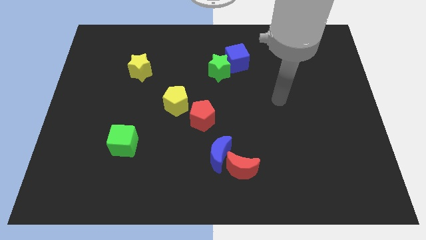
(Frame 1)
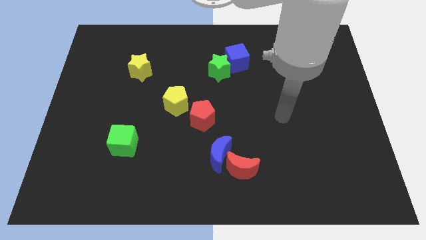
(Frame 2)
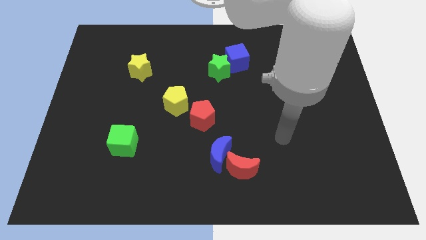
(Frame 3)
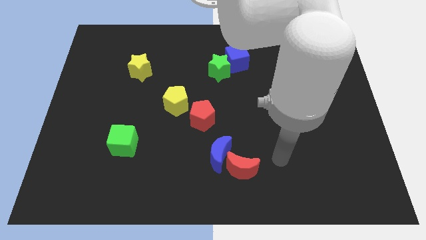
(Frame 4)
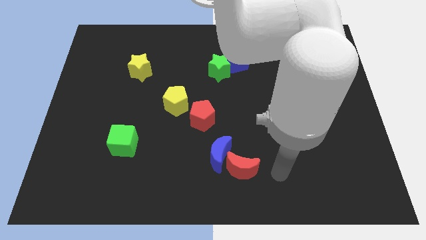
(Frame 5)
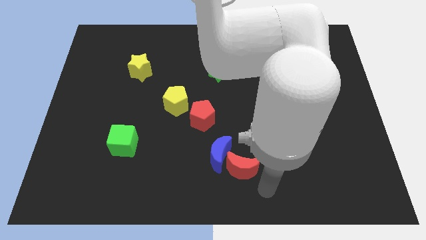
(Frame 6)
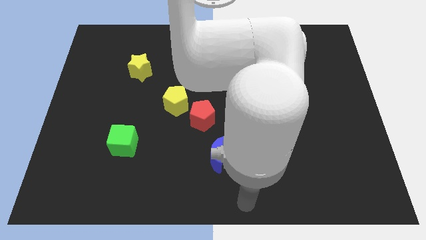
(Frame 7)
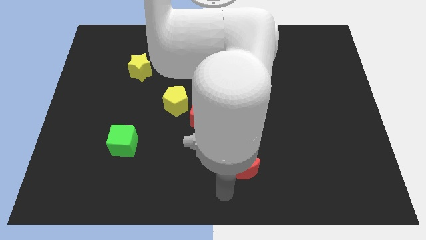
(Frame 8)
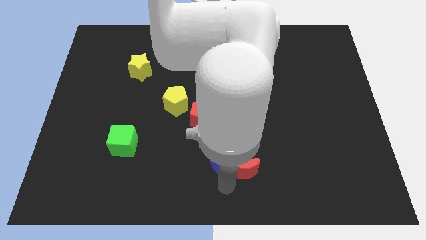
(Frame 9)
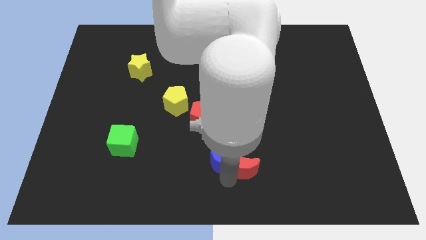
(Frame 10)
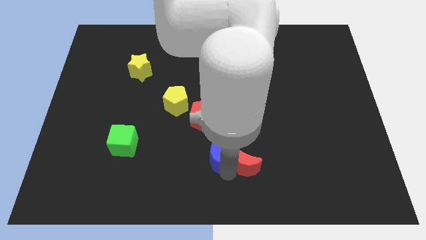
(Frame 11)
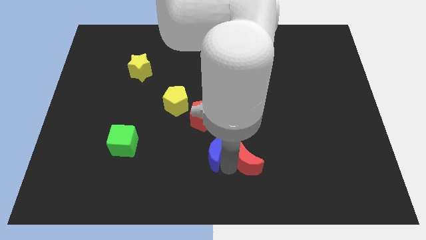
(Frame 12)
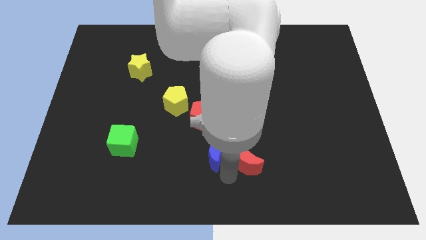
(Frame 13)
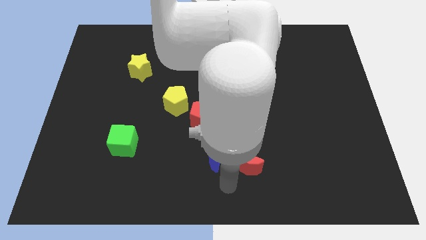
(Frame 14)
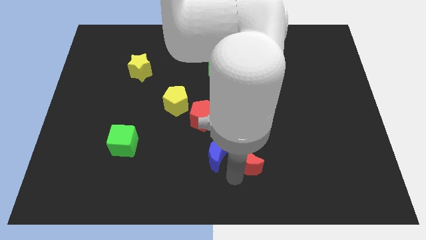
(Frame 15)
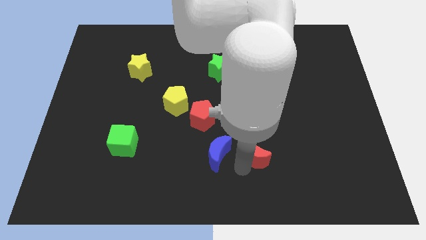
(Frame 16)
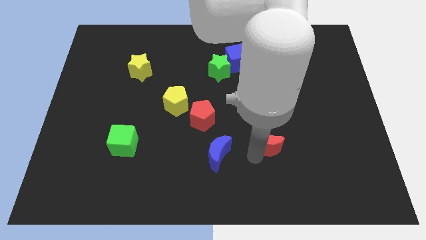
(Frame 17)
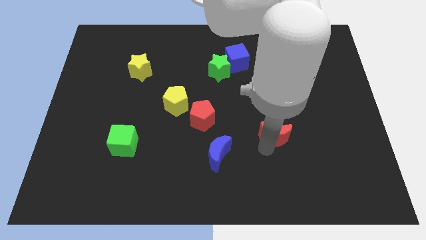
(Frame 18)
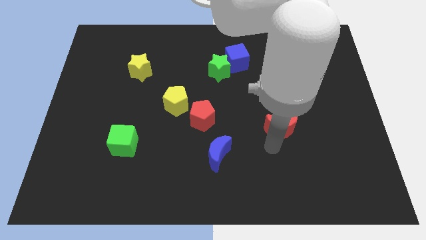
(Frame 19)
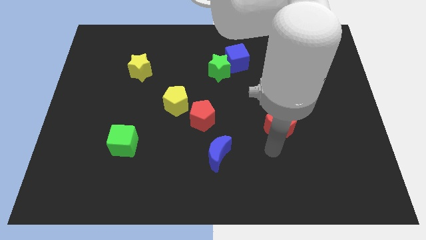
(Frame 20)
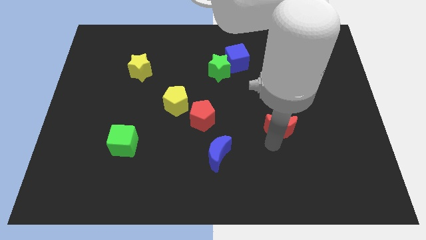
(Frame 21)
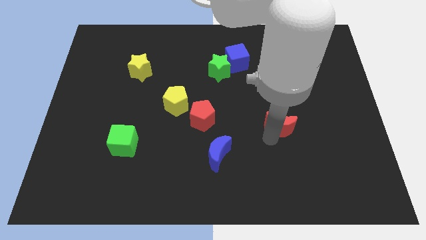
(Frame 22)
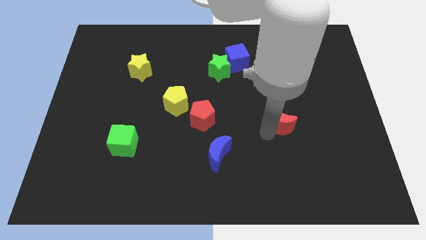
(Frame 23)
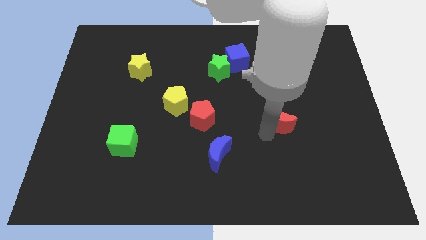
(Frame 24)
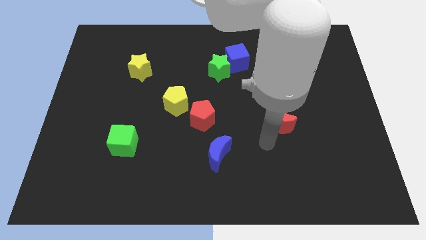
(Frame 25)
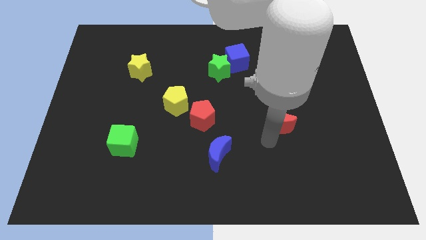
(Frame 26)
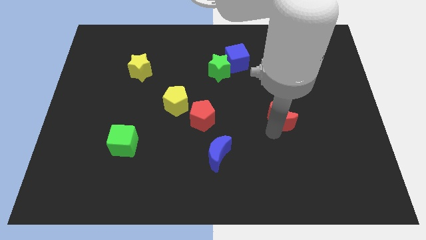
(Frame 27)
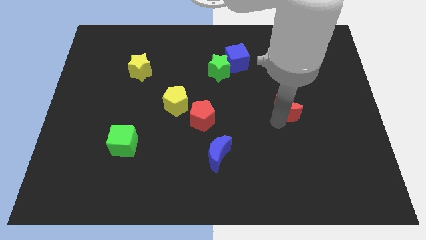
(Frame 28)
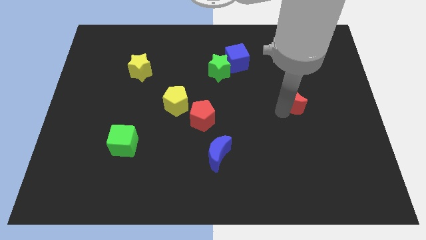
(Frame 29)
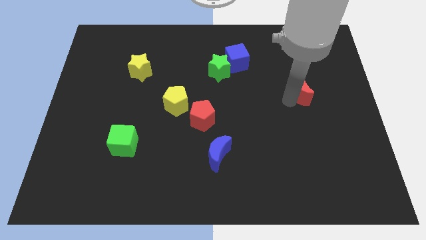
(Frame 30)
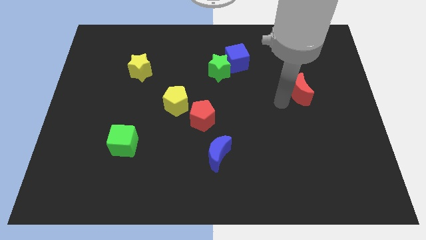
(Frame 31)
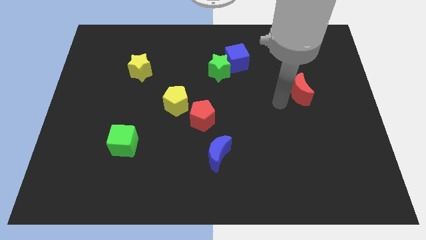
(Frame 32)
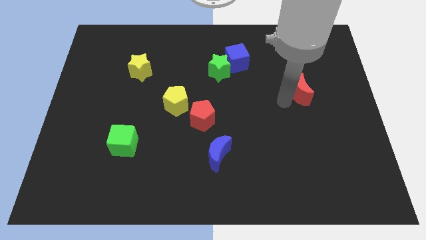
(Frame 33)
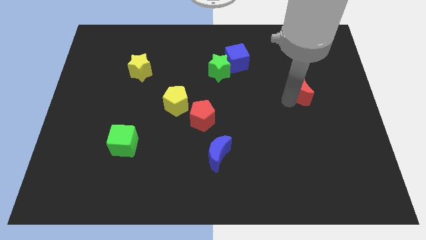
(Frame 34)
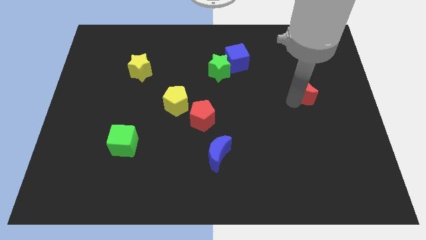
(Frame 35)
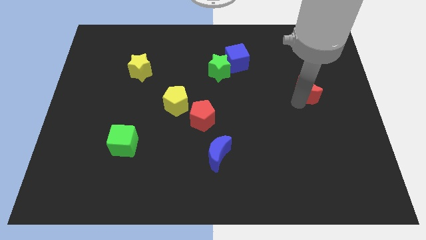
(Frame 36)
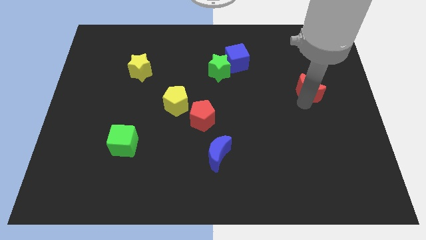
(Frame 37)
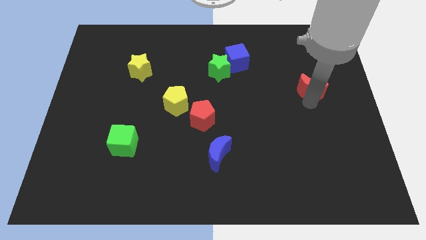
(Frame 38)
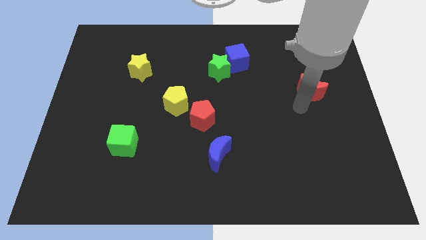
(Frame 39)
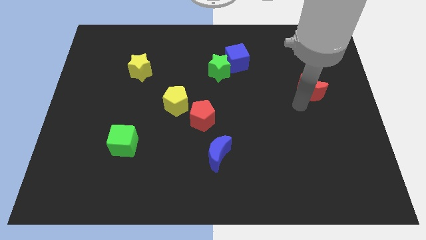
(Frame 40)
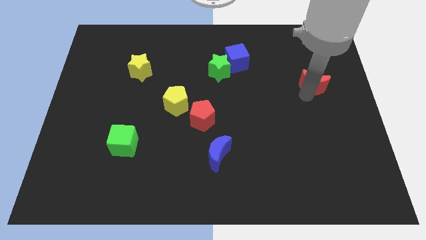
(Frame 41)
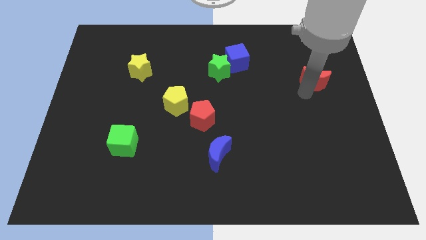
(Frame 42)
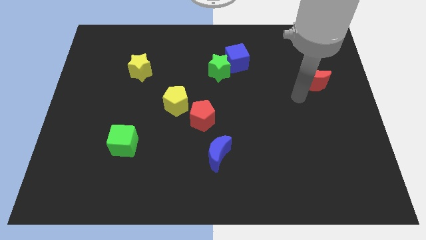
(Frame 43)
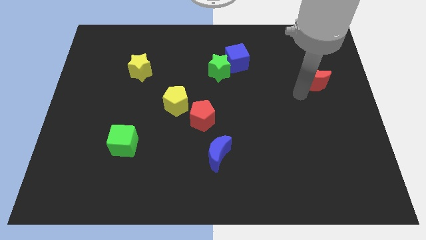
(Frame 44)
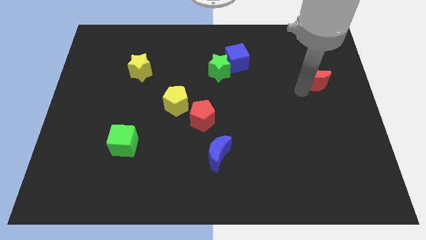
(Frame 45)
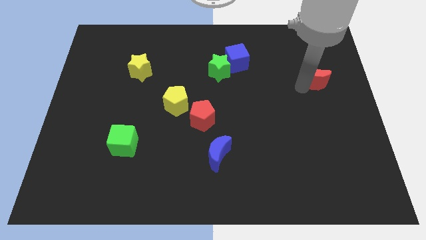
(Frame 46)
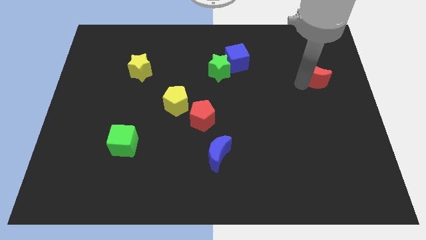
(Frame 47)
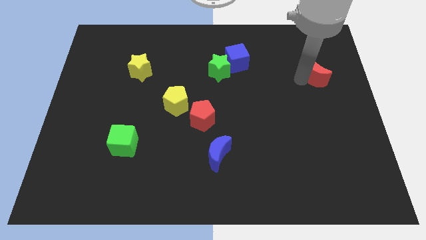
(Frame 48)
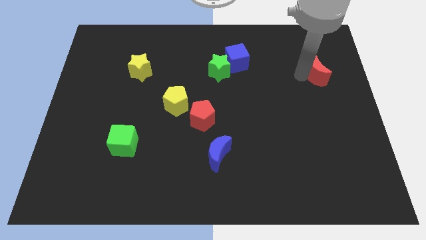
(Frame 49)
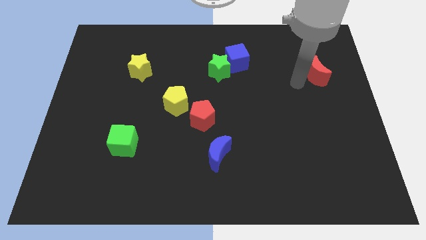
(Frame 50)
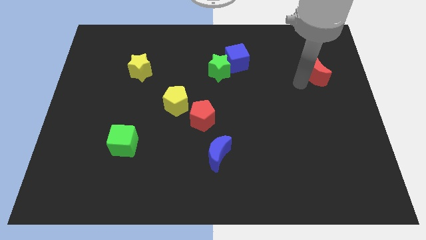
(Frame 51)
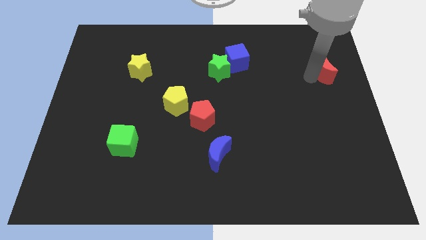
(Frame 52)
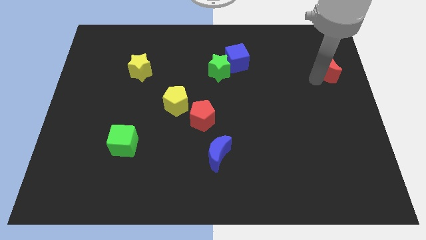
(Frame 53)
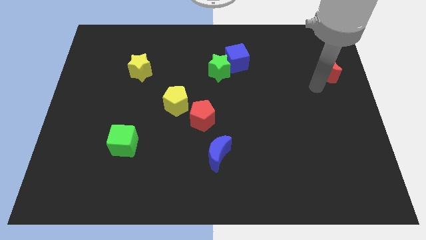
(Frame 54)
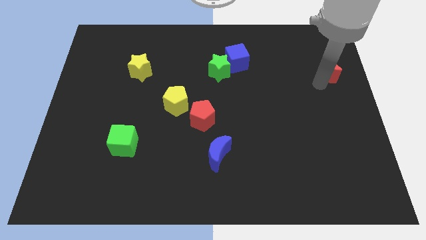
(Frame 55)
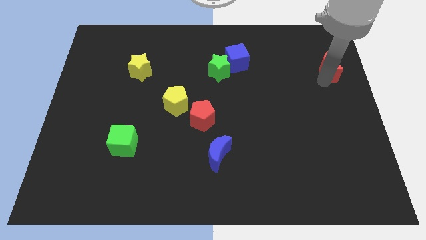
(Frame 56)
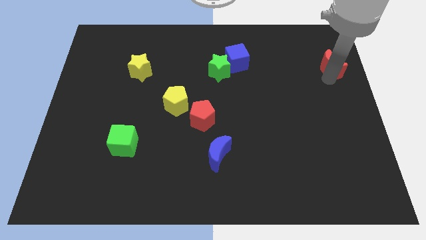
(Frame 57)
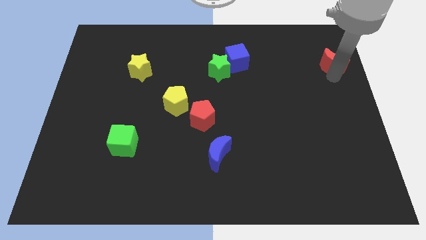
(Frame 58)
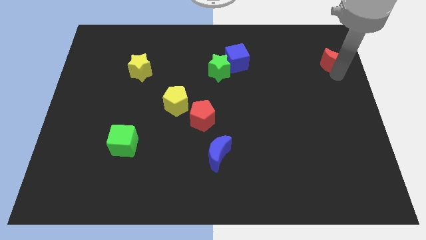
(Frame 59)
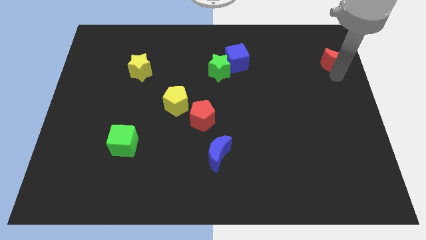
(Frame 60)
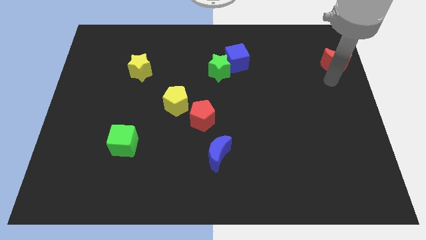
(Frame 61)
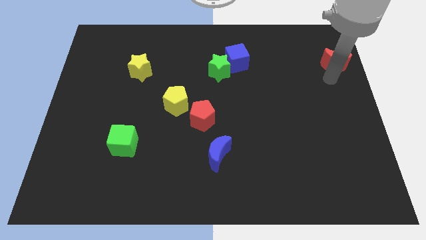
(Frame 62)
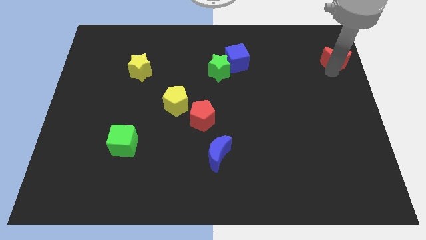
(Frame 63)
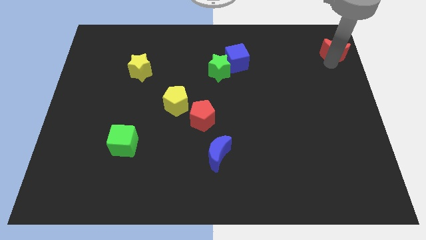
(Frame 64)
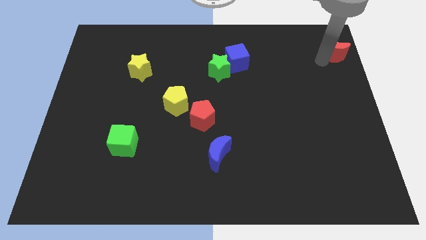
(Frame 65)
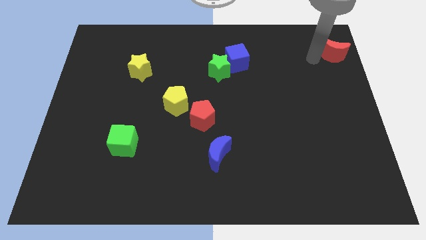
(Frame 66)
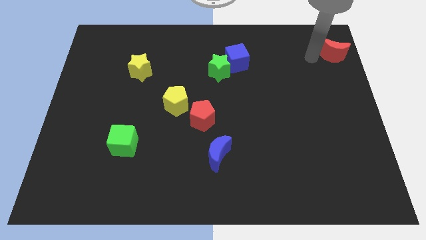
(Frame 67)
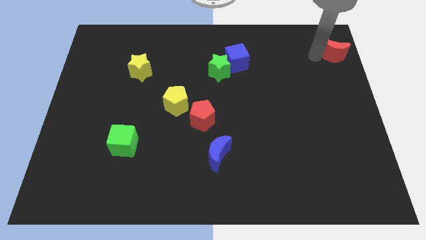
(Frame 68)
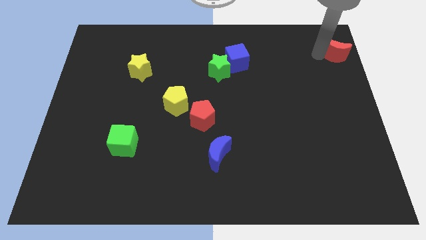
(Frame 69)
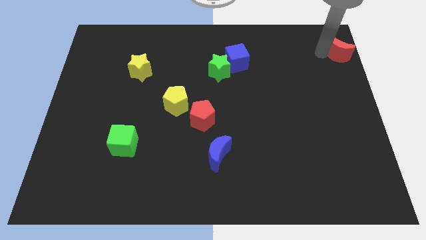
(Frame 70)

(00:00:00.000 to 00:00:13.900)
push the red moon to the upper right corner
